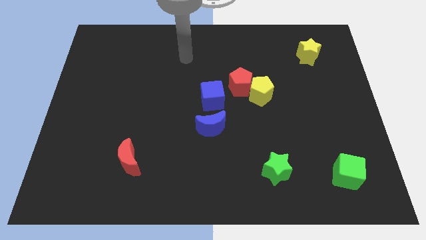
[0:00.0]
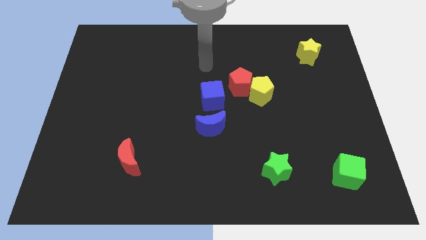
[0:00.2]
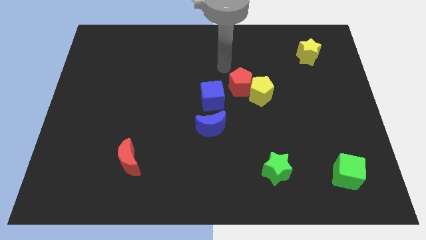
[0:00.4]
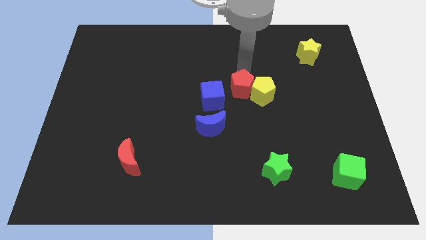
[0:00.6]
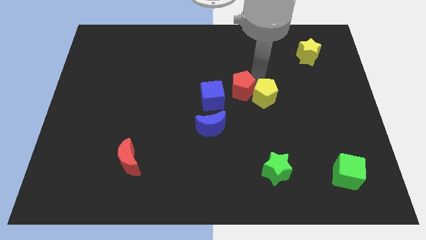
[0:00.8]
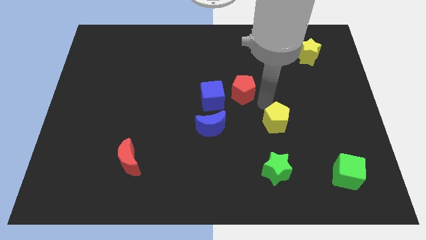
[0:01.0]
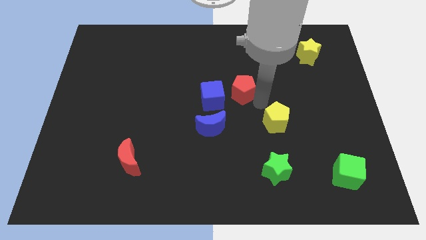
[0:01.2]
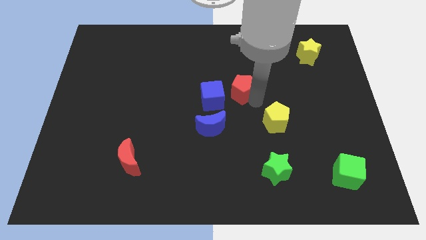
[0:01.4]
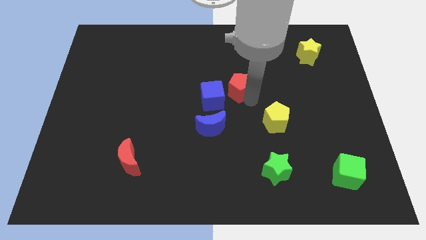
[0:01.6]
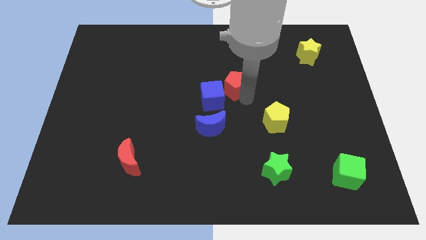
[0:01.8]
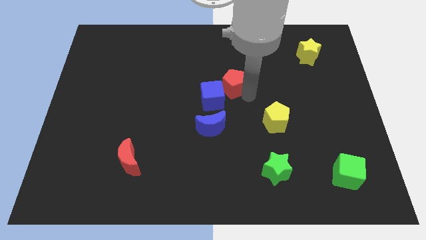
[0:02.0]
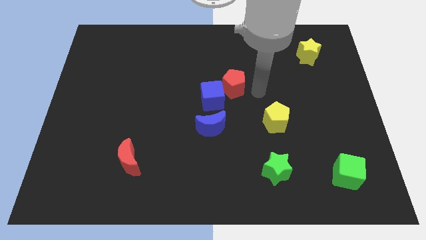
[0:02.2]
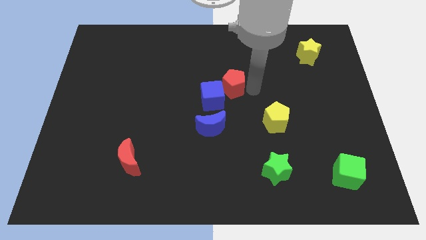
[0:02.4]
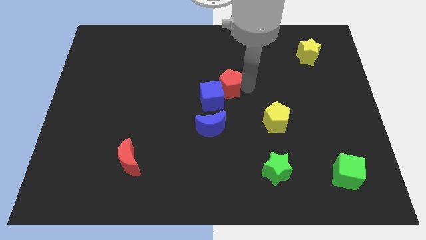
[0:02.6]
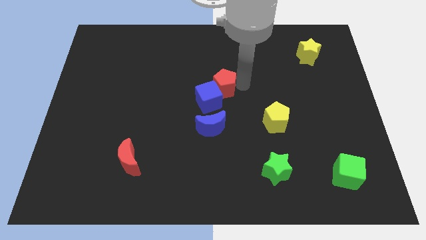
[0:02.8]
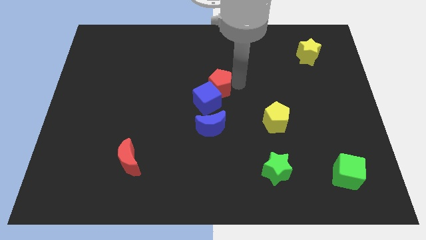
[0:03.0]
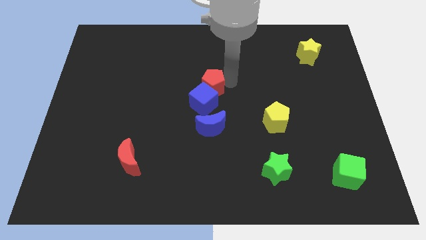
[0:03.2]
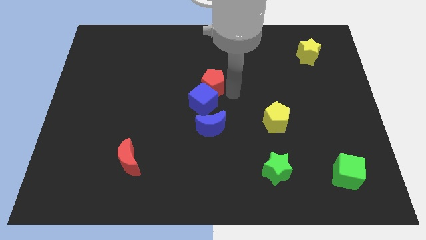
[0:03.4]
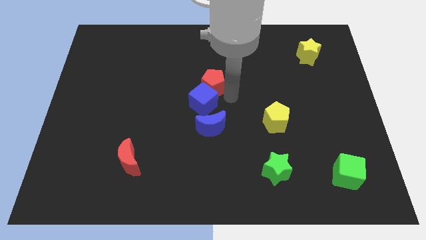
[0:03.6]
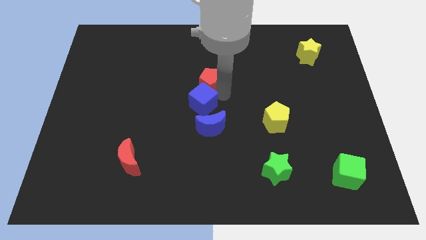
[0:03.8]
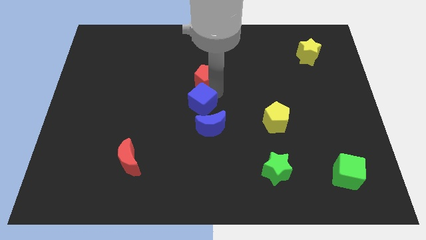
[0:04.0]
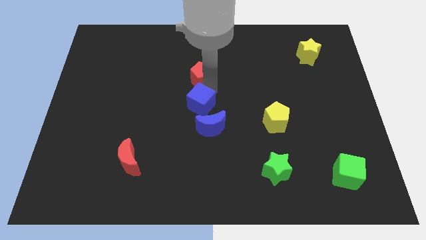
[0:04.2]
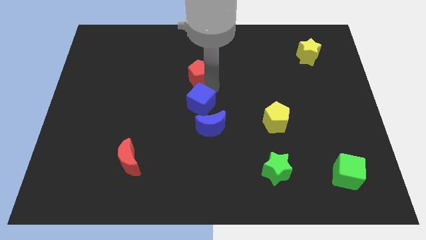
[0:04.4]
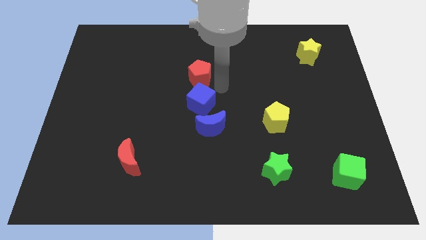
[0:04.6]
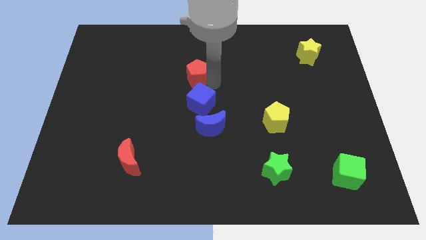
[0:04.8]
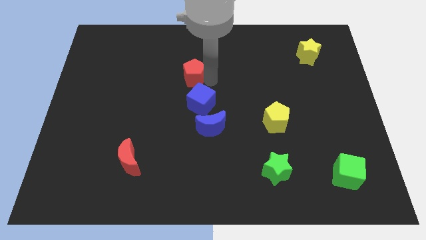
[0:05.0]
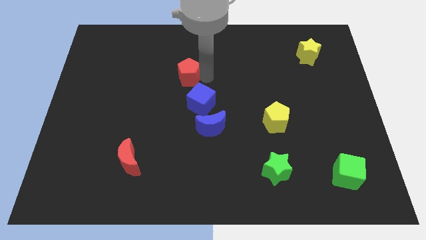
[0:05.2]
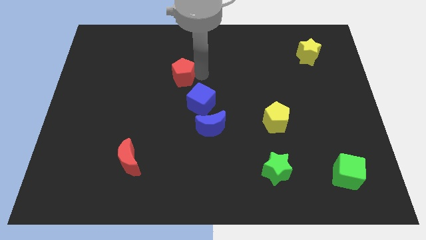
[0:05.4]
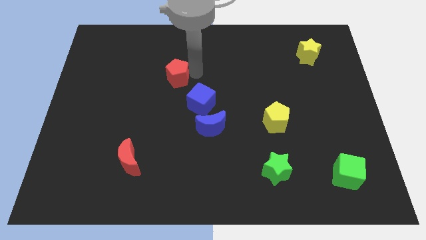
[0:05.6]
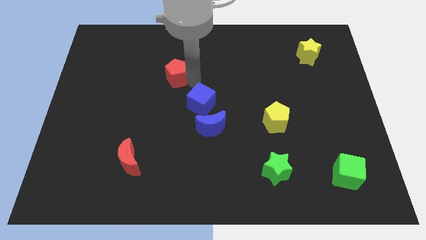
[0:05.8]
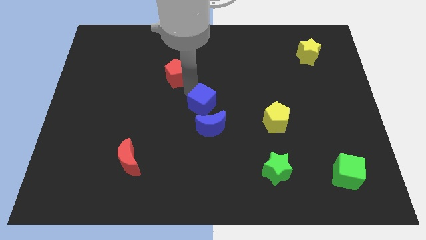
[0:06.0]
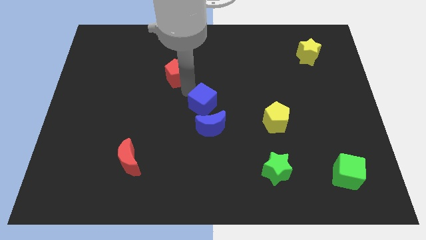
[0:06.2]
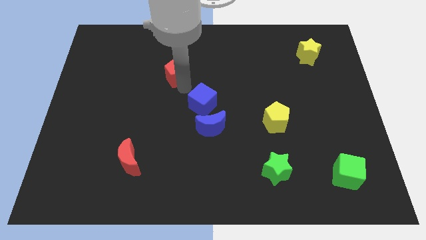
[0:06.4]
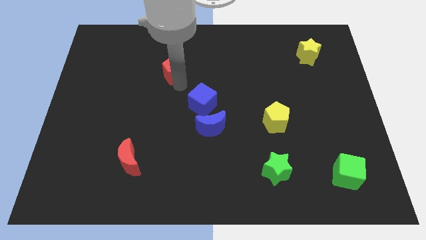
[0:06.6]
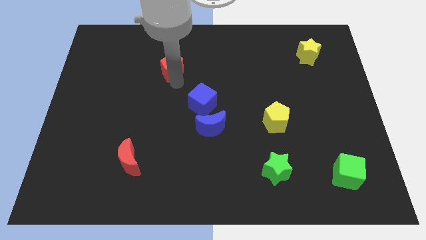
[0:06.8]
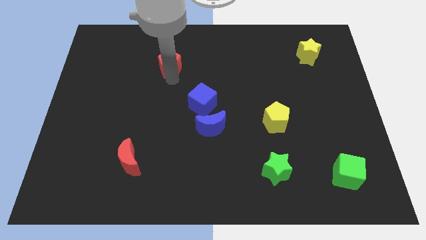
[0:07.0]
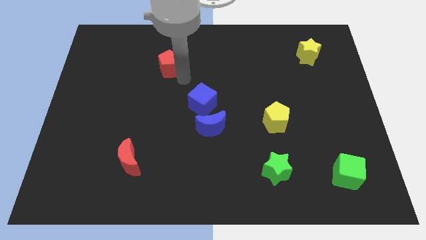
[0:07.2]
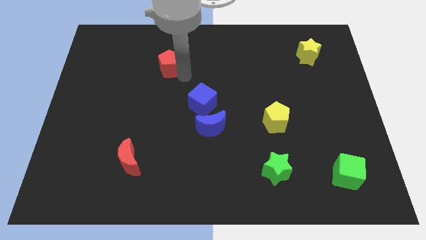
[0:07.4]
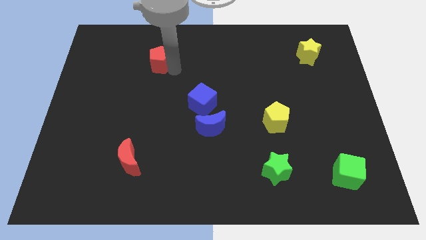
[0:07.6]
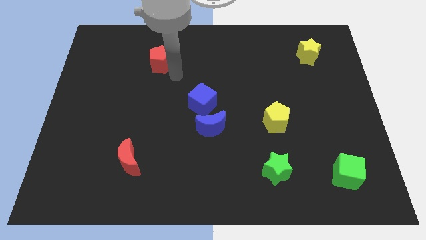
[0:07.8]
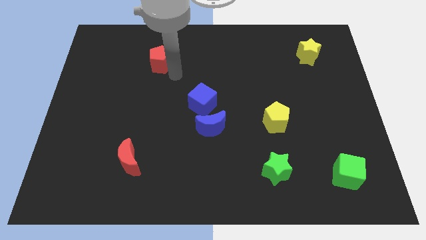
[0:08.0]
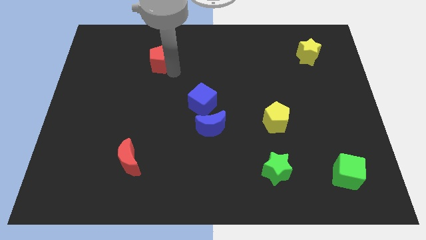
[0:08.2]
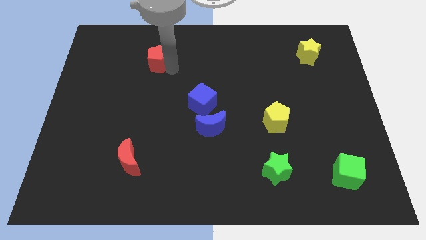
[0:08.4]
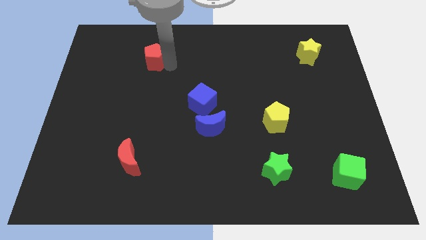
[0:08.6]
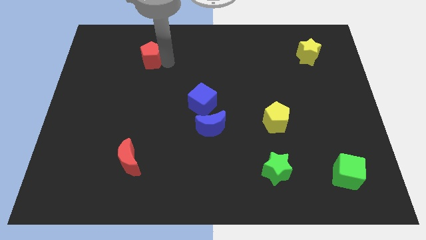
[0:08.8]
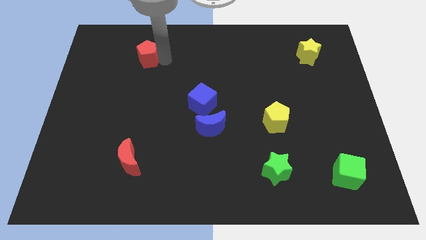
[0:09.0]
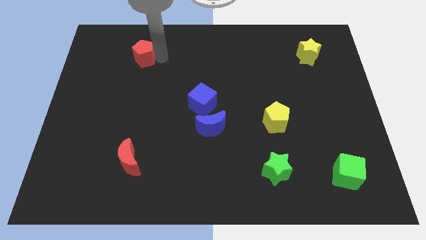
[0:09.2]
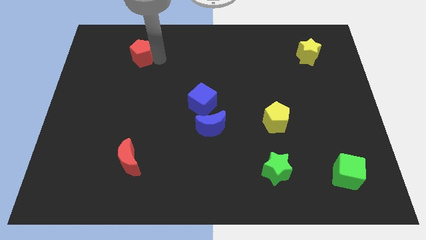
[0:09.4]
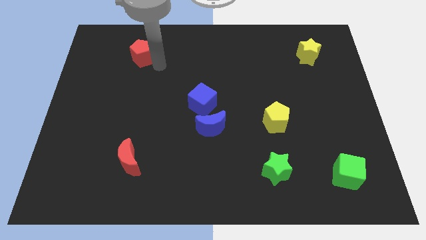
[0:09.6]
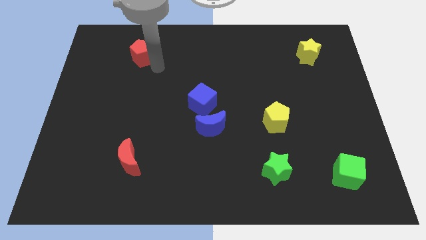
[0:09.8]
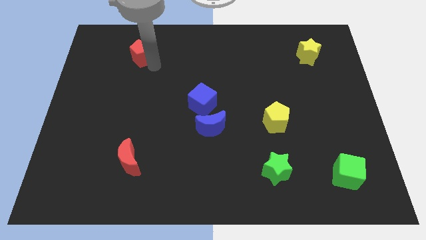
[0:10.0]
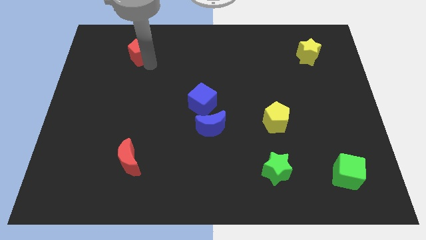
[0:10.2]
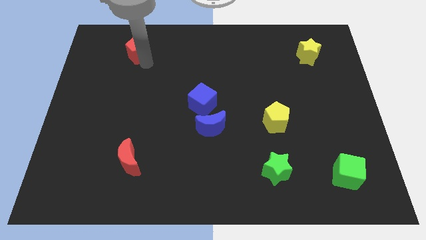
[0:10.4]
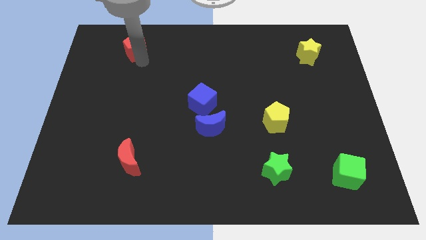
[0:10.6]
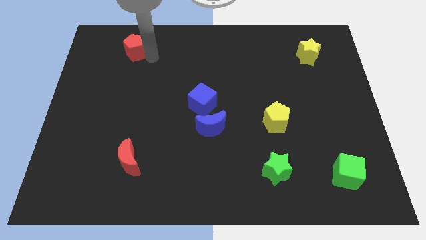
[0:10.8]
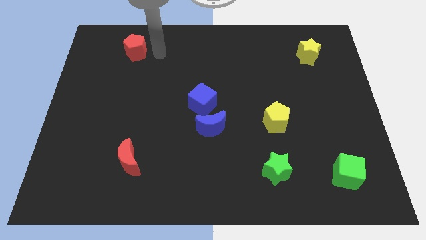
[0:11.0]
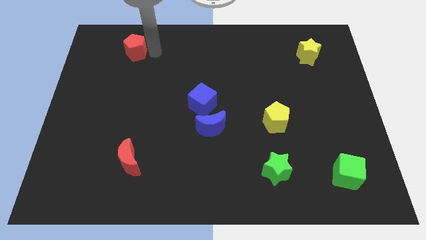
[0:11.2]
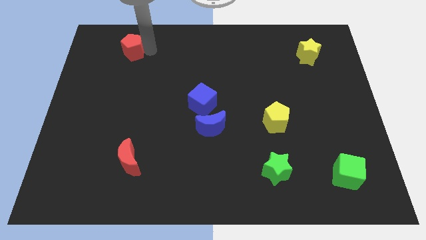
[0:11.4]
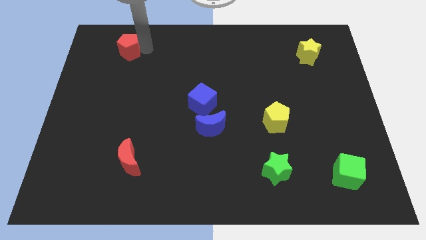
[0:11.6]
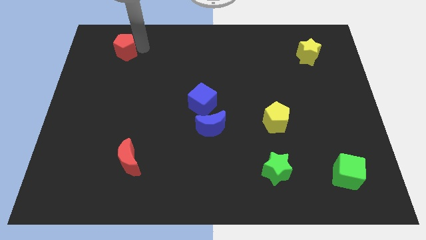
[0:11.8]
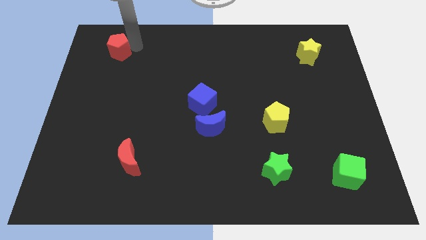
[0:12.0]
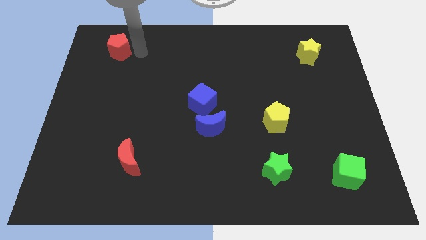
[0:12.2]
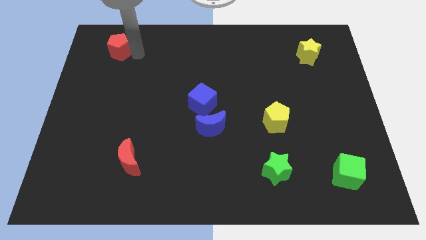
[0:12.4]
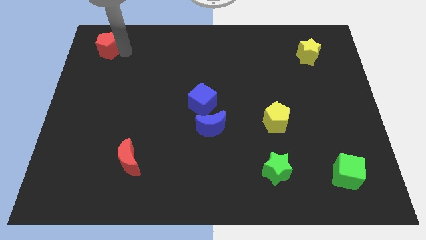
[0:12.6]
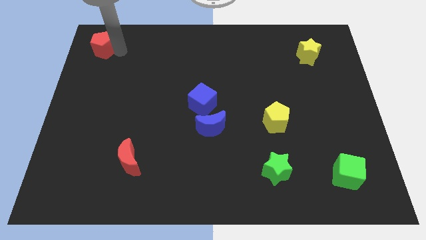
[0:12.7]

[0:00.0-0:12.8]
put the red pentagon to the top left corner
